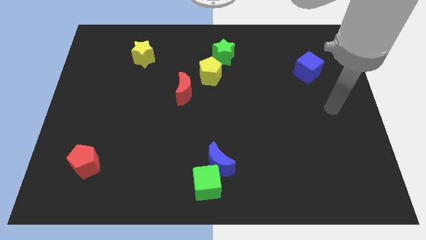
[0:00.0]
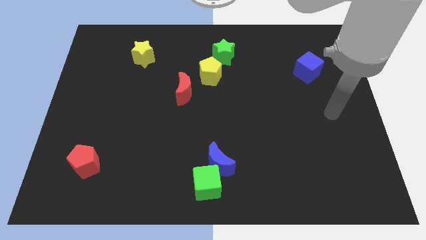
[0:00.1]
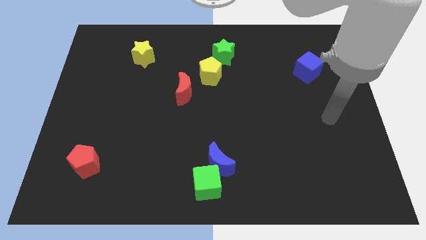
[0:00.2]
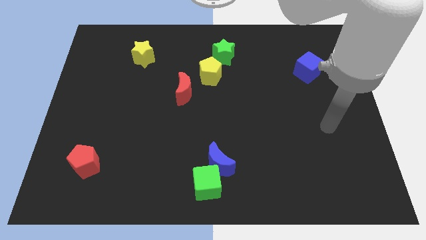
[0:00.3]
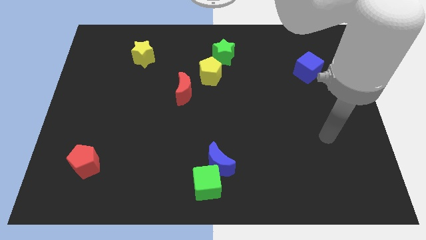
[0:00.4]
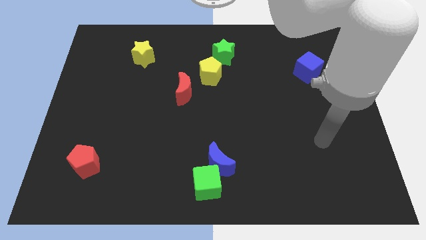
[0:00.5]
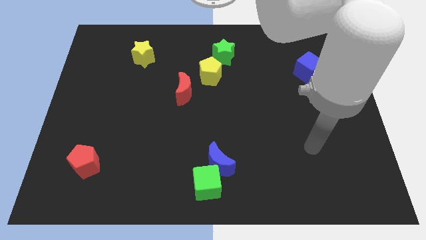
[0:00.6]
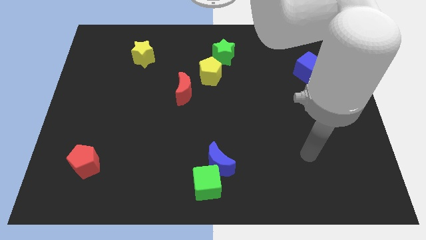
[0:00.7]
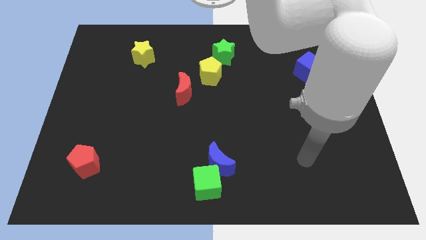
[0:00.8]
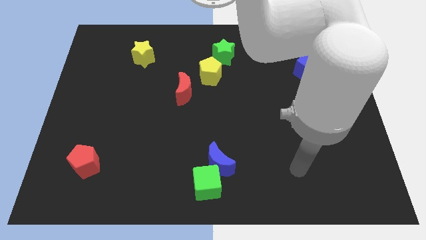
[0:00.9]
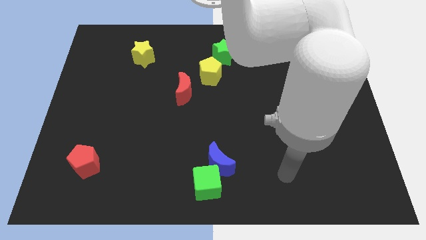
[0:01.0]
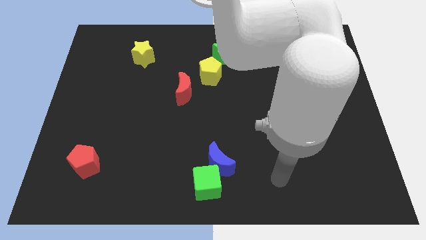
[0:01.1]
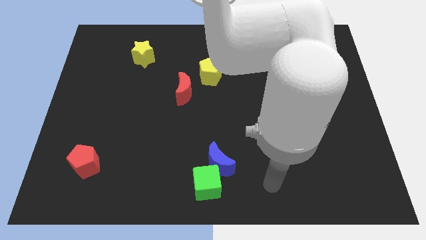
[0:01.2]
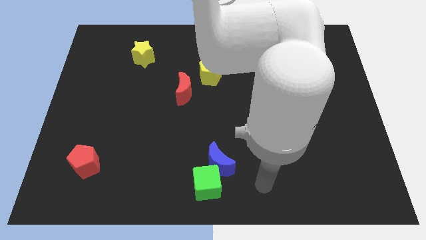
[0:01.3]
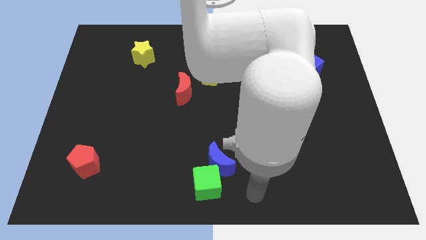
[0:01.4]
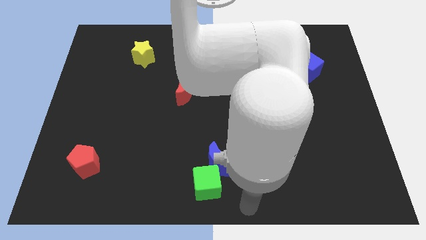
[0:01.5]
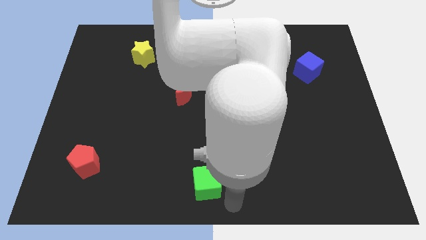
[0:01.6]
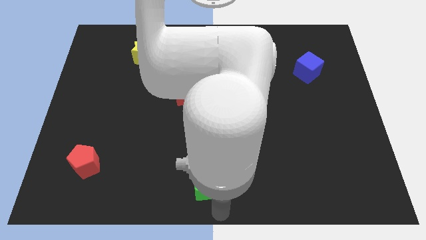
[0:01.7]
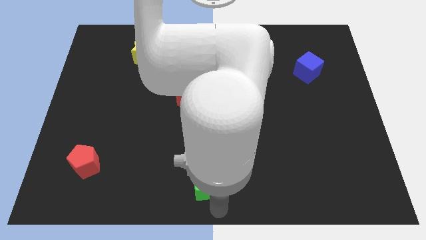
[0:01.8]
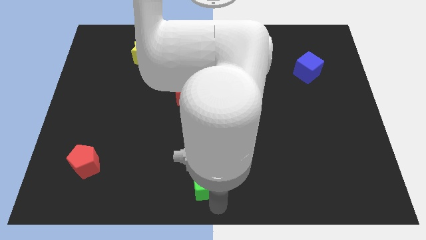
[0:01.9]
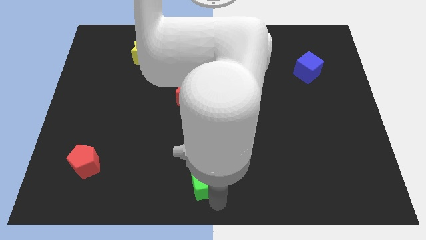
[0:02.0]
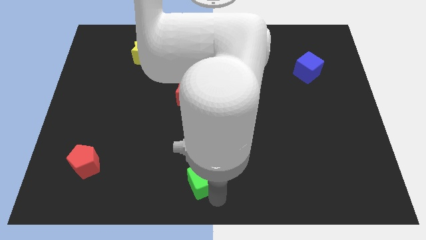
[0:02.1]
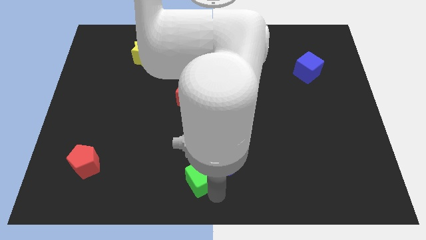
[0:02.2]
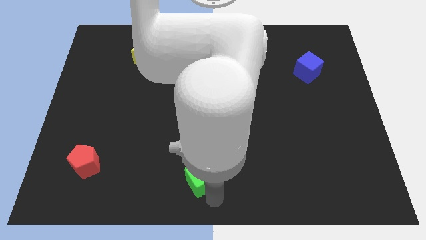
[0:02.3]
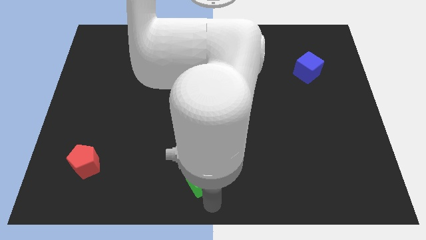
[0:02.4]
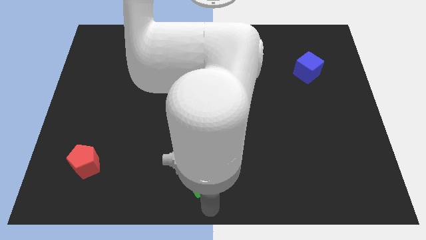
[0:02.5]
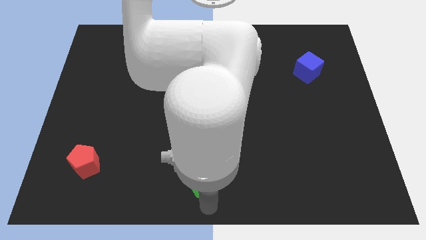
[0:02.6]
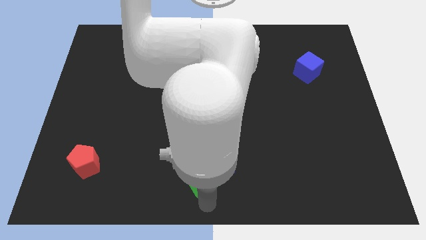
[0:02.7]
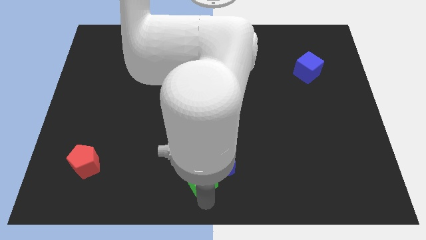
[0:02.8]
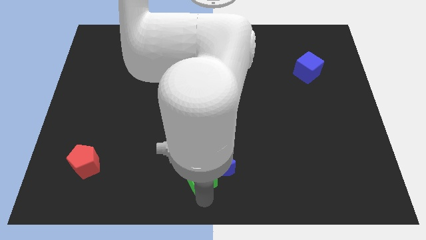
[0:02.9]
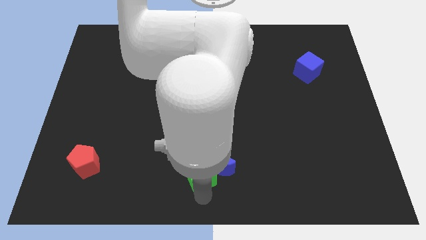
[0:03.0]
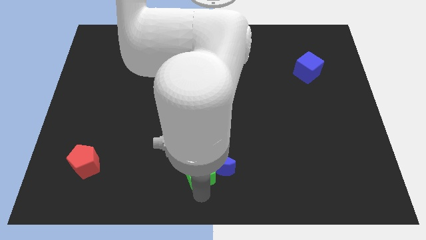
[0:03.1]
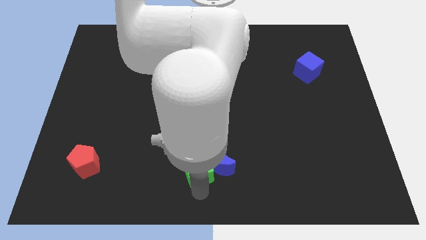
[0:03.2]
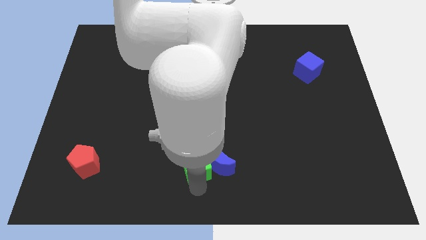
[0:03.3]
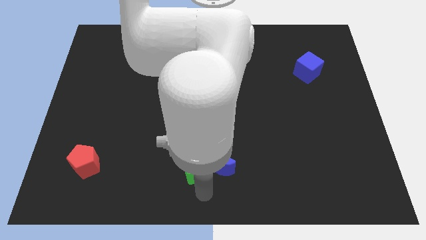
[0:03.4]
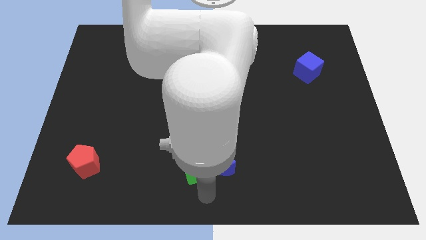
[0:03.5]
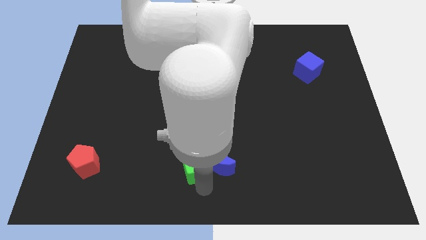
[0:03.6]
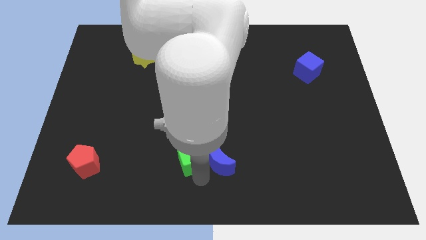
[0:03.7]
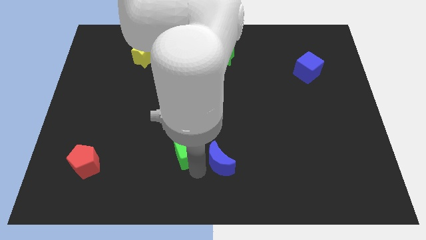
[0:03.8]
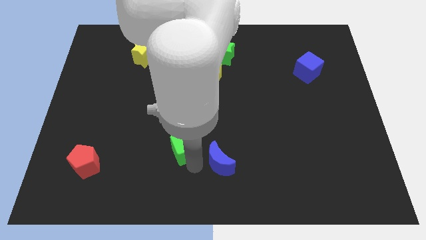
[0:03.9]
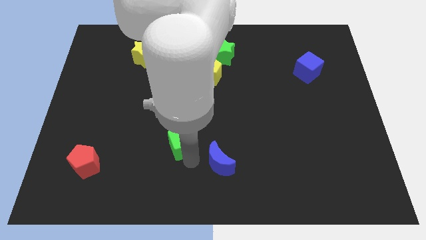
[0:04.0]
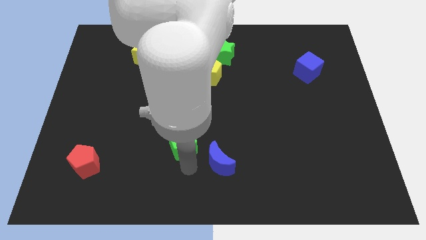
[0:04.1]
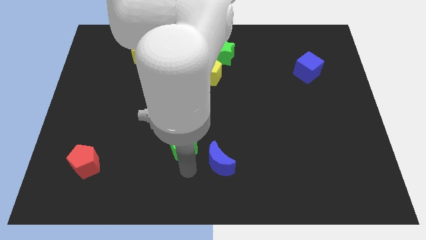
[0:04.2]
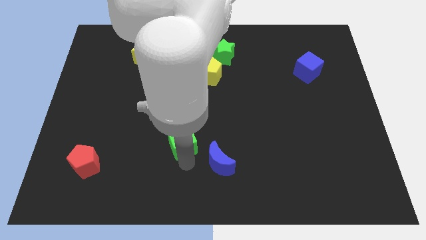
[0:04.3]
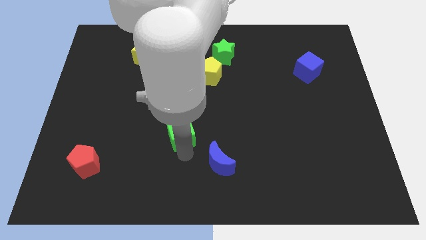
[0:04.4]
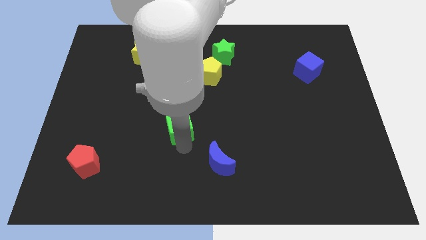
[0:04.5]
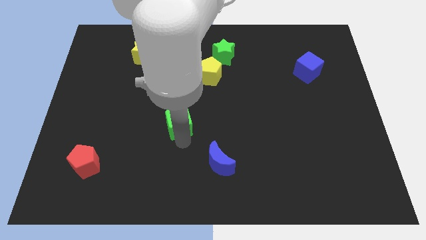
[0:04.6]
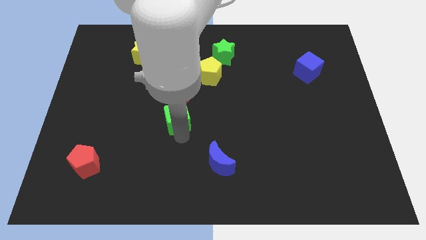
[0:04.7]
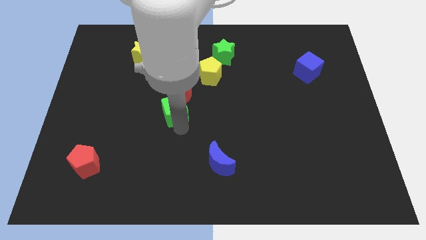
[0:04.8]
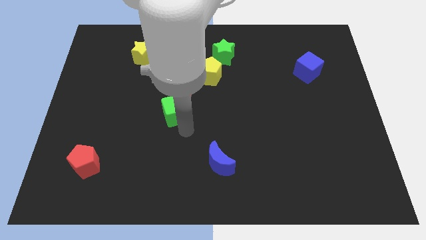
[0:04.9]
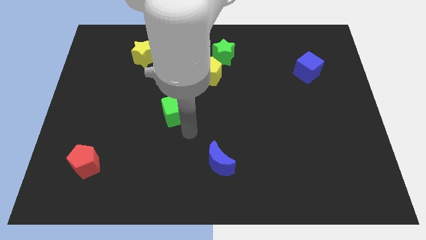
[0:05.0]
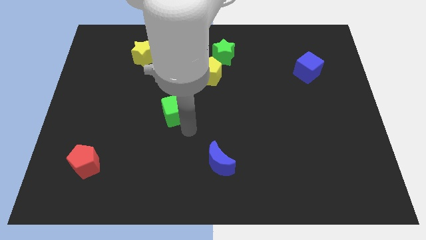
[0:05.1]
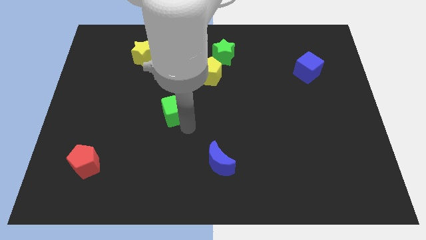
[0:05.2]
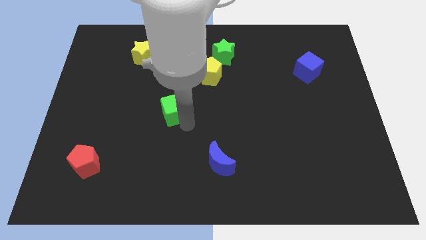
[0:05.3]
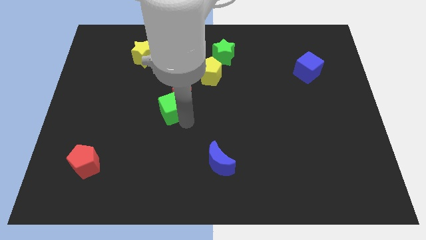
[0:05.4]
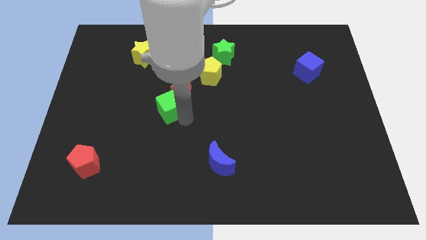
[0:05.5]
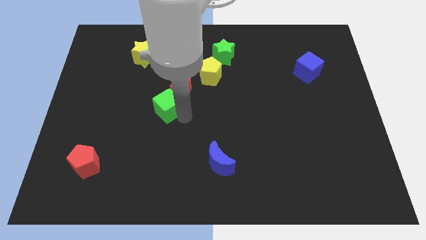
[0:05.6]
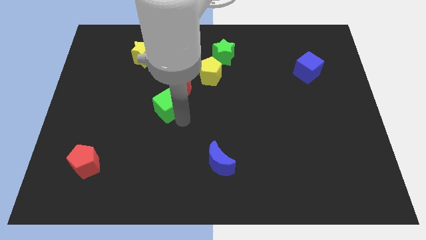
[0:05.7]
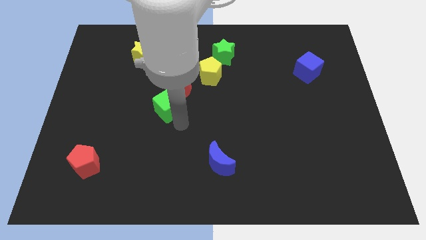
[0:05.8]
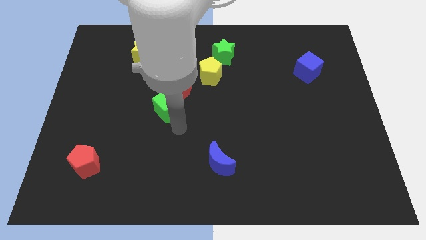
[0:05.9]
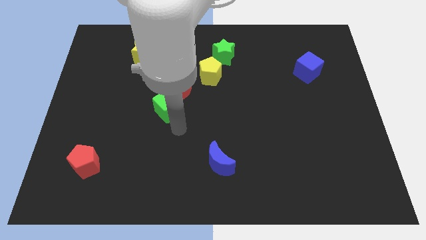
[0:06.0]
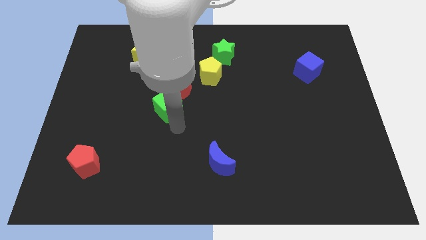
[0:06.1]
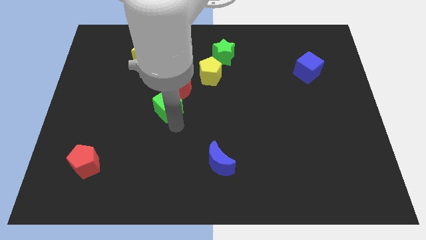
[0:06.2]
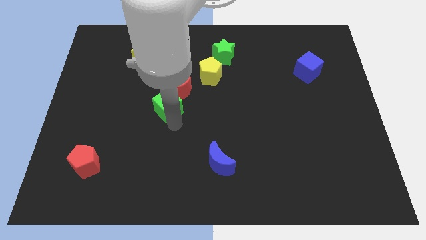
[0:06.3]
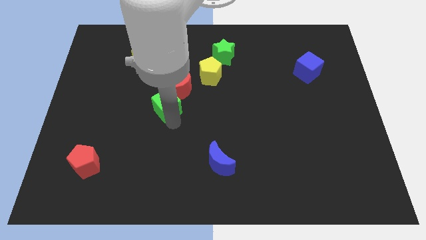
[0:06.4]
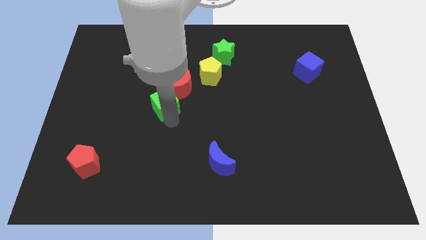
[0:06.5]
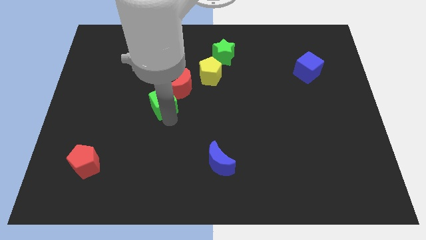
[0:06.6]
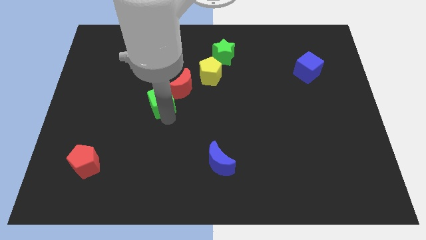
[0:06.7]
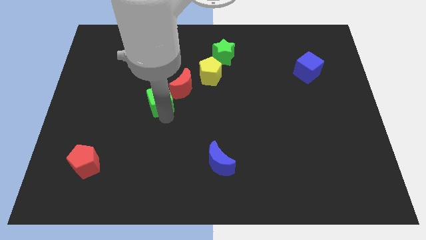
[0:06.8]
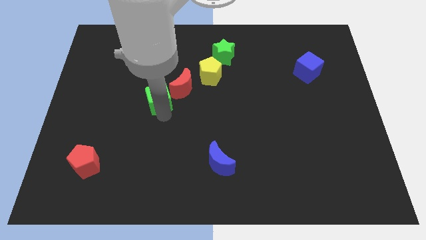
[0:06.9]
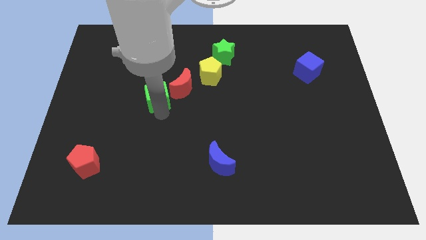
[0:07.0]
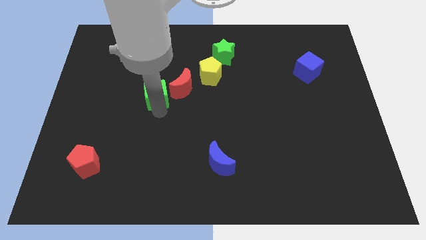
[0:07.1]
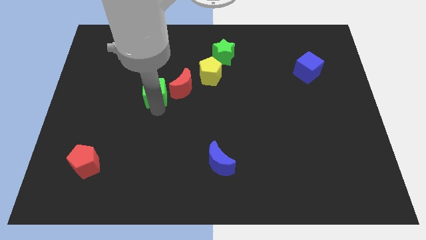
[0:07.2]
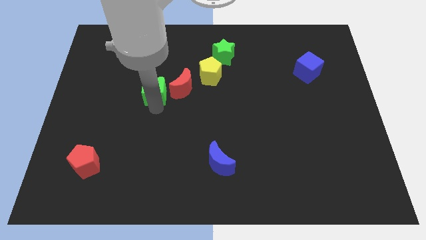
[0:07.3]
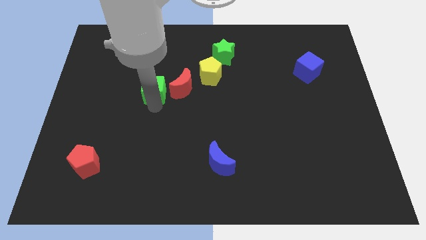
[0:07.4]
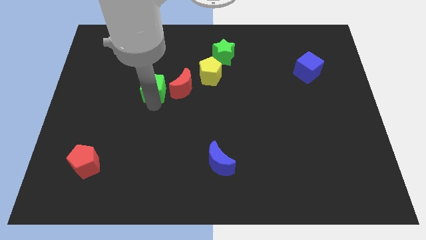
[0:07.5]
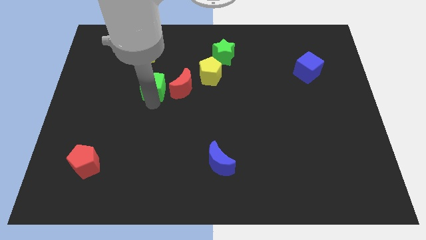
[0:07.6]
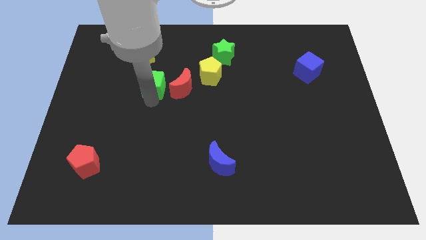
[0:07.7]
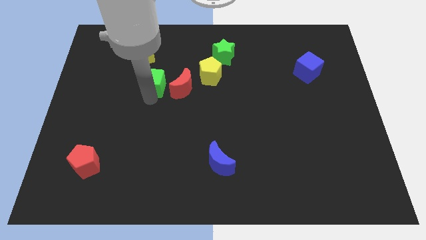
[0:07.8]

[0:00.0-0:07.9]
slide the green cube to the bottom right side of the yellow star
